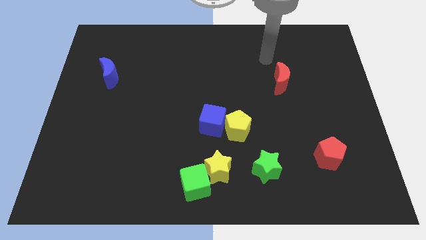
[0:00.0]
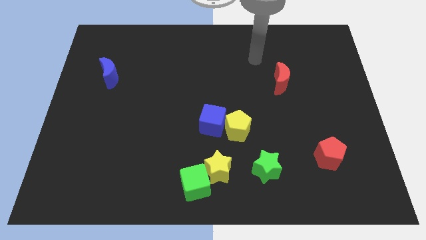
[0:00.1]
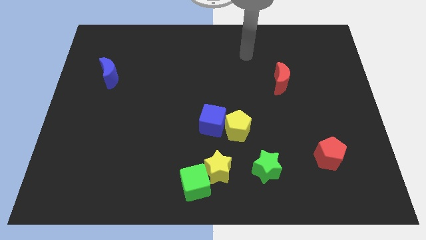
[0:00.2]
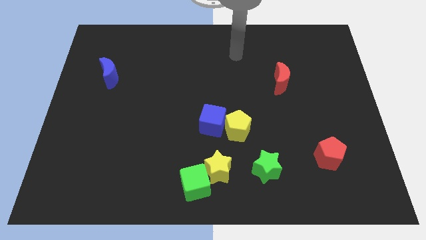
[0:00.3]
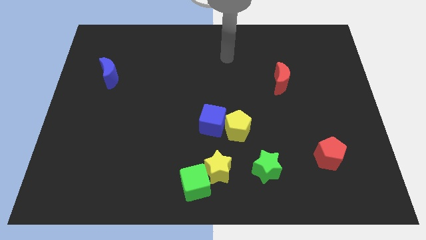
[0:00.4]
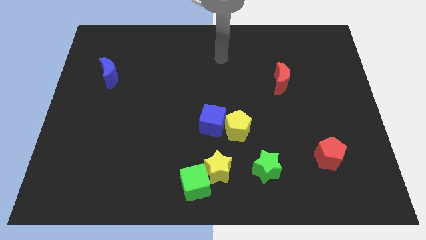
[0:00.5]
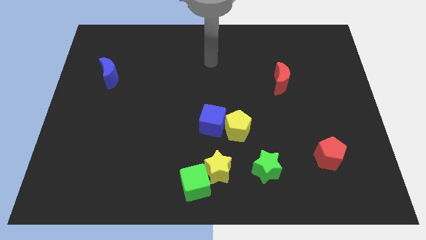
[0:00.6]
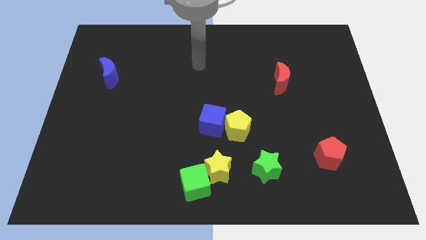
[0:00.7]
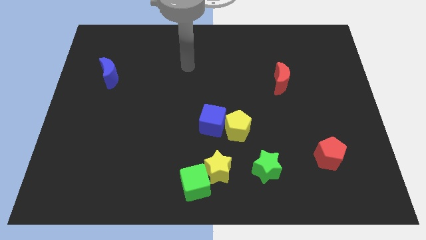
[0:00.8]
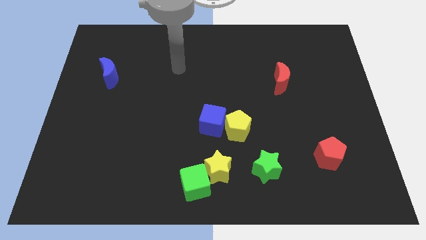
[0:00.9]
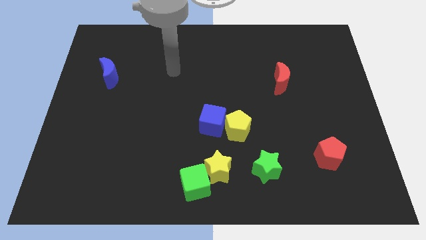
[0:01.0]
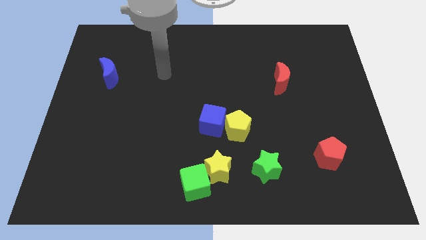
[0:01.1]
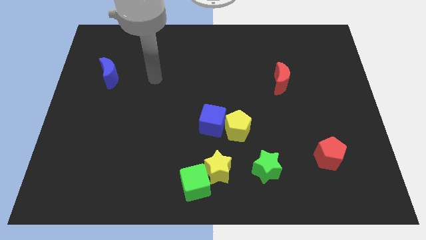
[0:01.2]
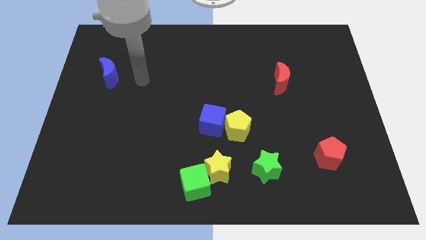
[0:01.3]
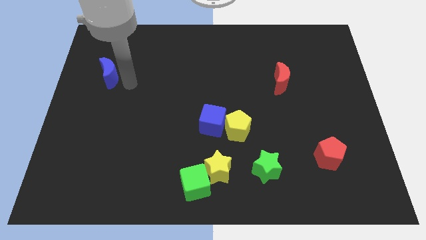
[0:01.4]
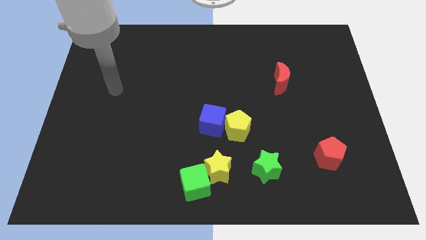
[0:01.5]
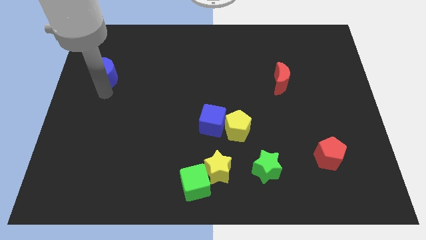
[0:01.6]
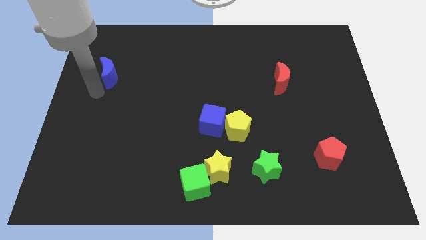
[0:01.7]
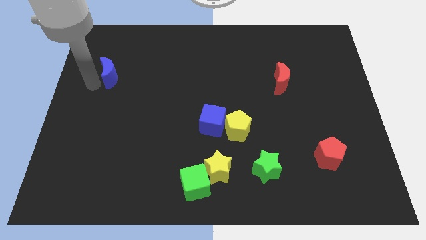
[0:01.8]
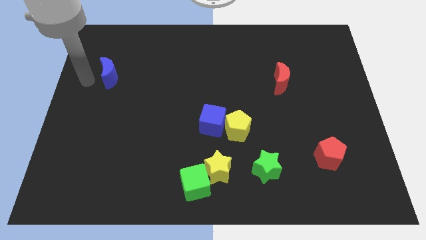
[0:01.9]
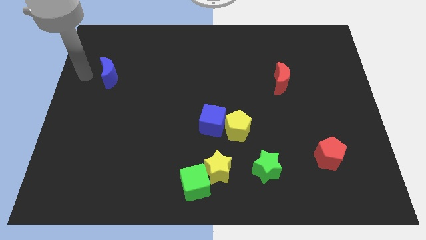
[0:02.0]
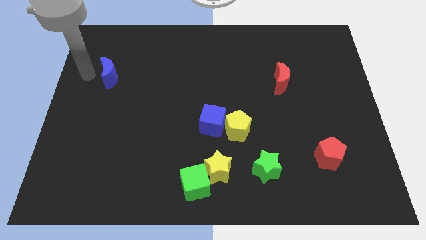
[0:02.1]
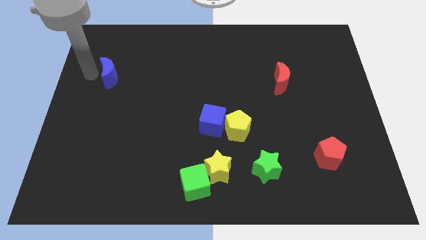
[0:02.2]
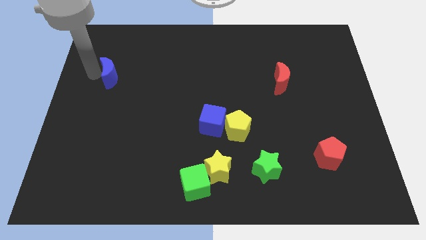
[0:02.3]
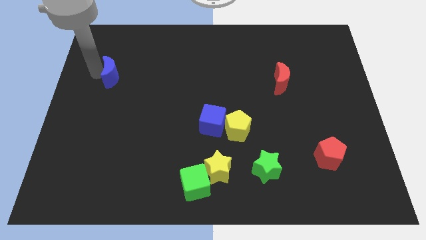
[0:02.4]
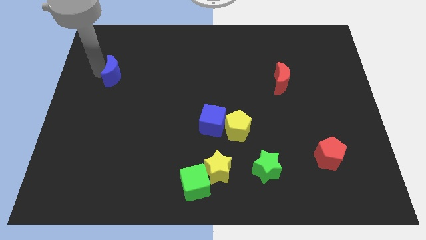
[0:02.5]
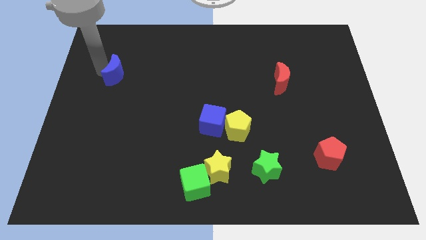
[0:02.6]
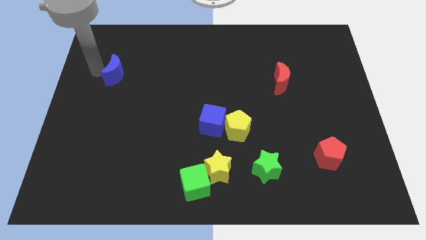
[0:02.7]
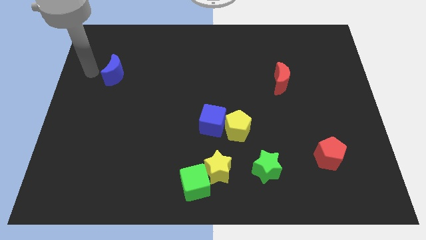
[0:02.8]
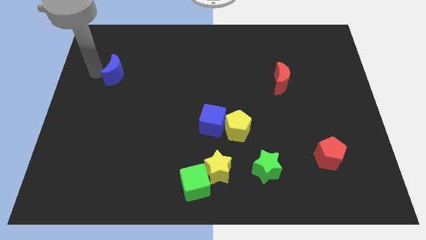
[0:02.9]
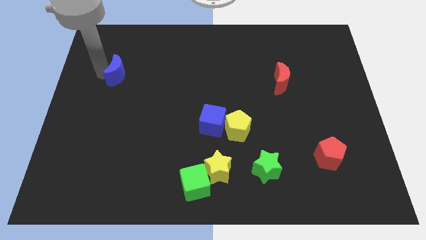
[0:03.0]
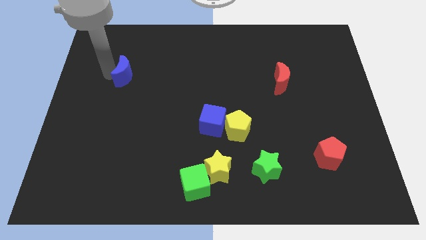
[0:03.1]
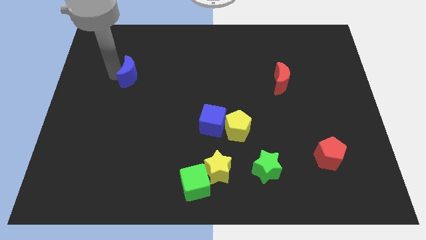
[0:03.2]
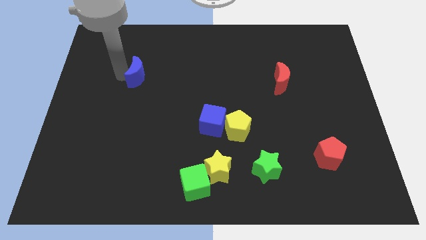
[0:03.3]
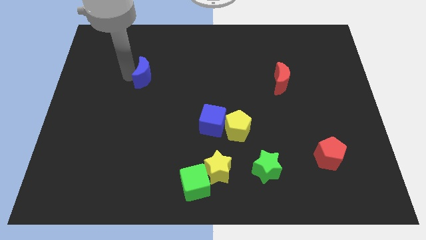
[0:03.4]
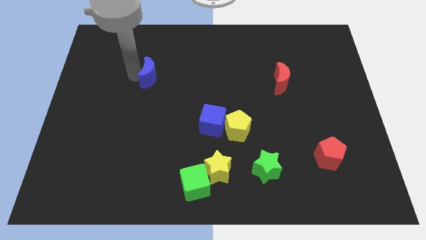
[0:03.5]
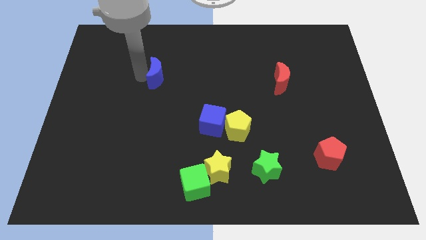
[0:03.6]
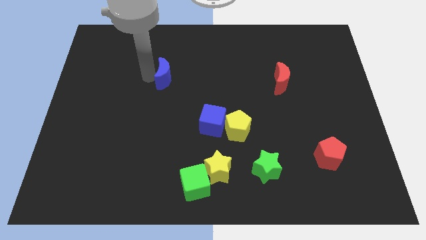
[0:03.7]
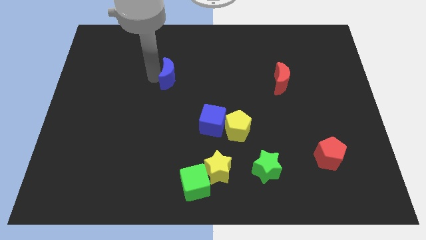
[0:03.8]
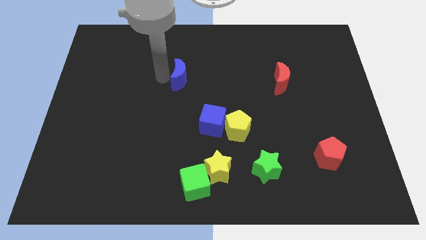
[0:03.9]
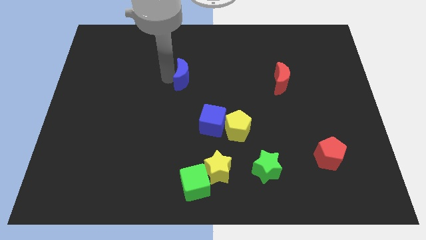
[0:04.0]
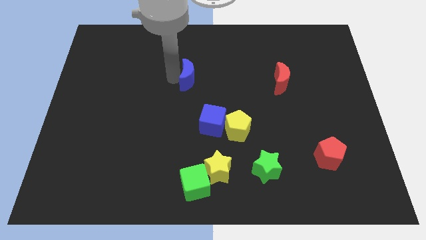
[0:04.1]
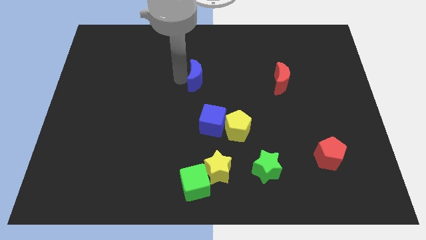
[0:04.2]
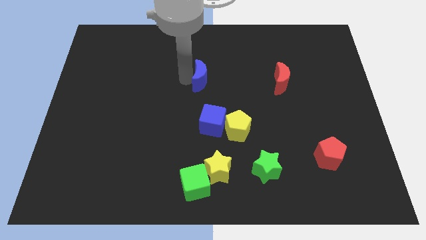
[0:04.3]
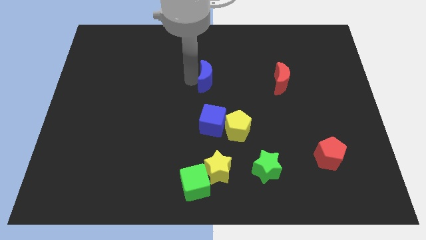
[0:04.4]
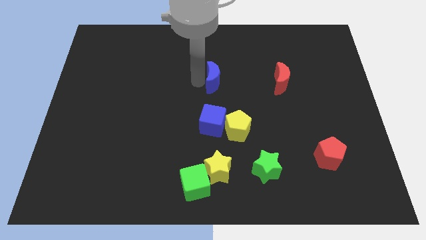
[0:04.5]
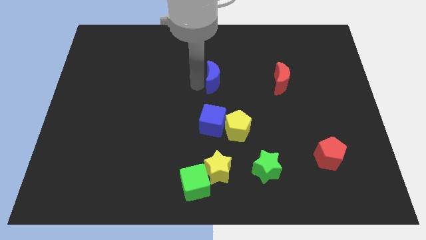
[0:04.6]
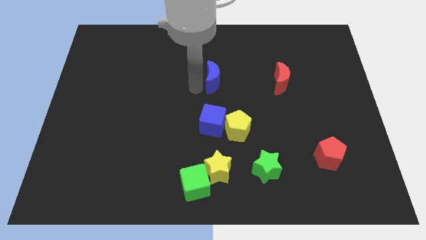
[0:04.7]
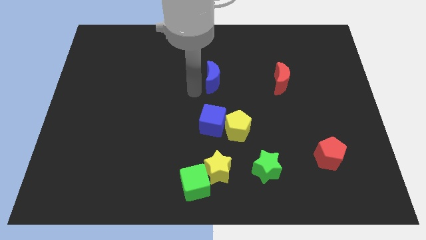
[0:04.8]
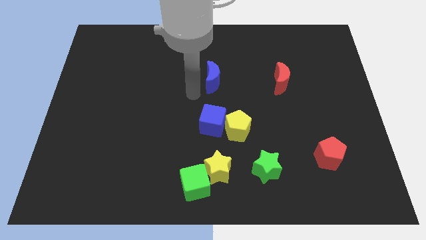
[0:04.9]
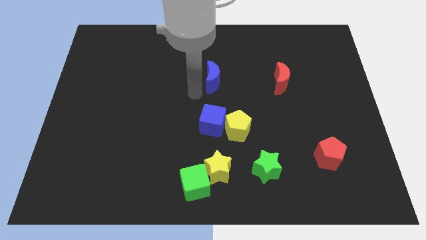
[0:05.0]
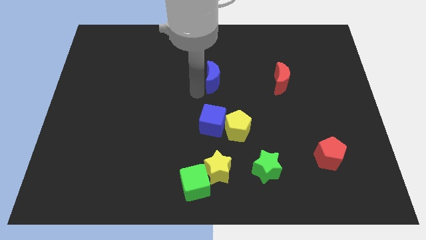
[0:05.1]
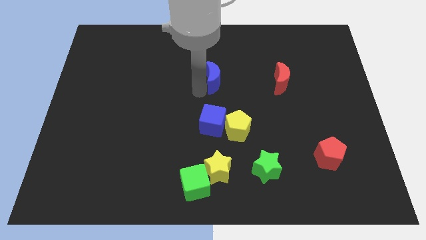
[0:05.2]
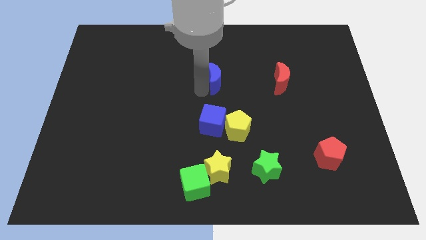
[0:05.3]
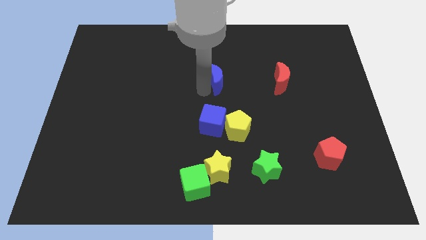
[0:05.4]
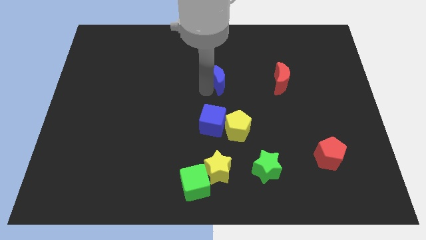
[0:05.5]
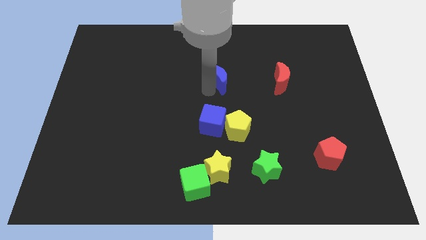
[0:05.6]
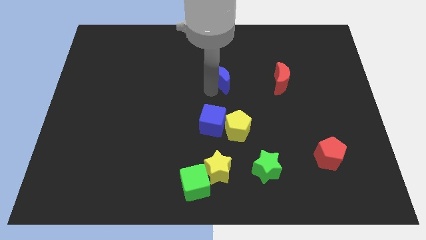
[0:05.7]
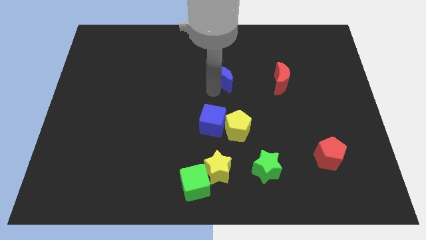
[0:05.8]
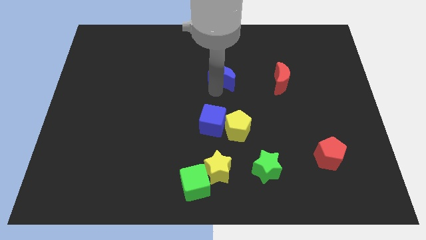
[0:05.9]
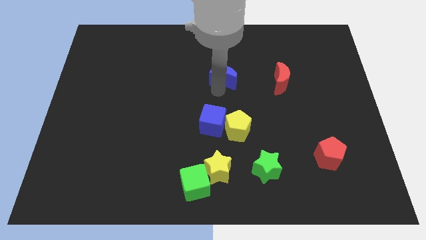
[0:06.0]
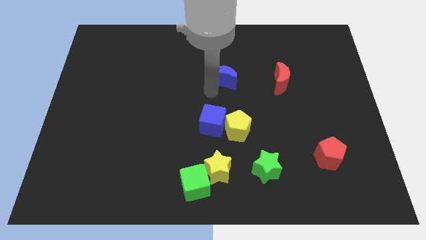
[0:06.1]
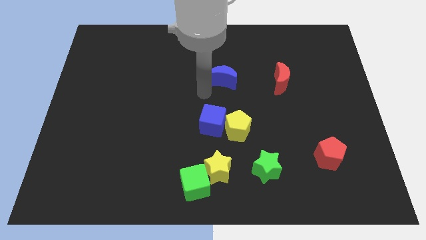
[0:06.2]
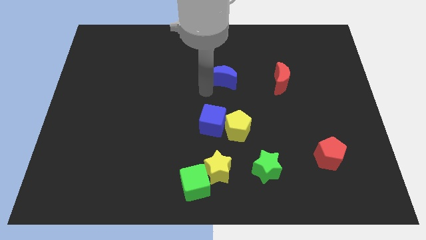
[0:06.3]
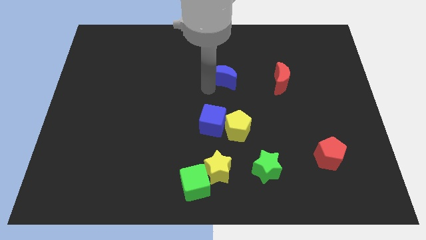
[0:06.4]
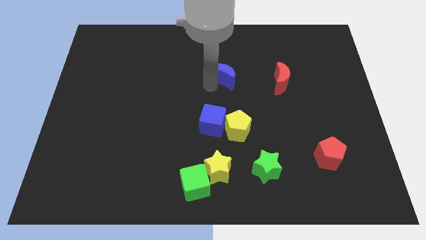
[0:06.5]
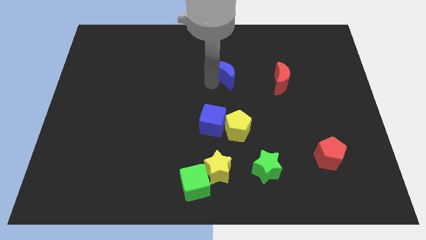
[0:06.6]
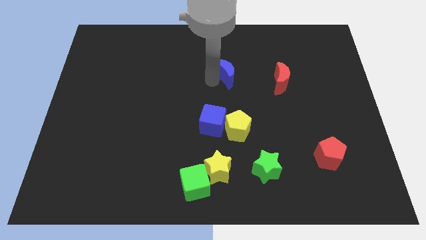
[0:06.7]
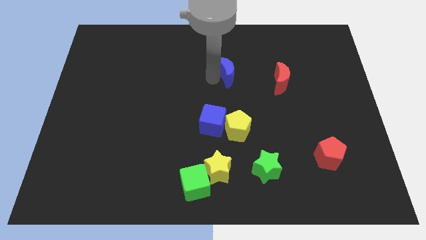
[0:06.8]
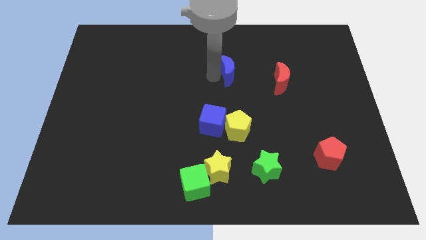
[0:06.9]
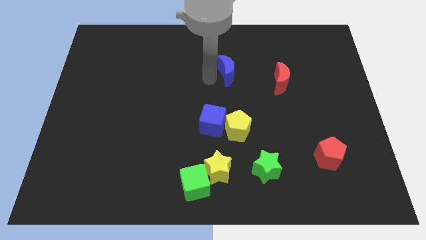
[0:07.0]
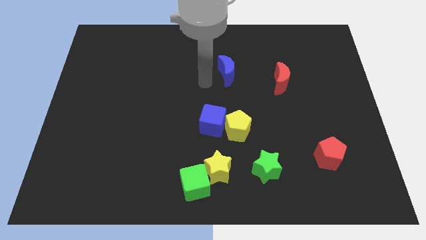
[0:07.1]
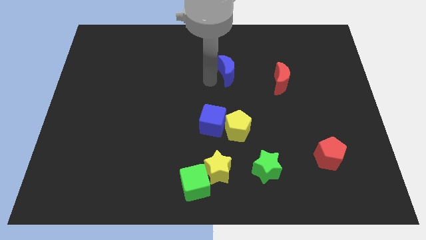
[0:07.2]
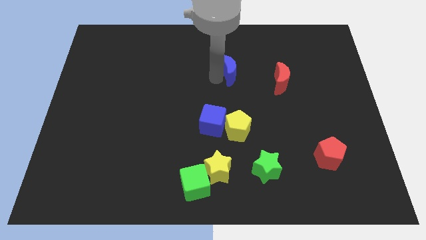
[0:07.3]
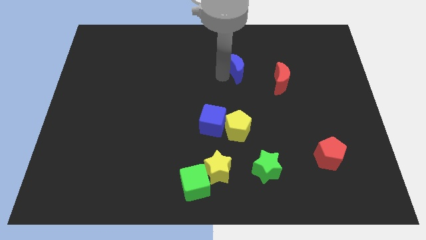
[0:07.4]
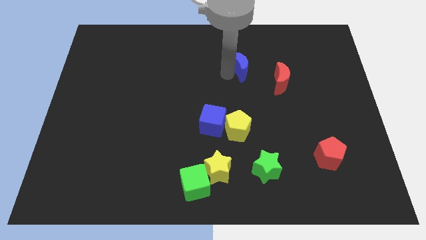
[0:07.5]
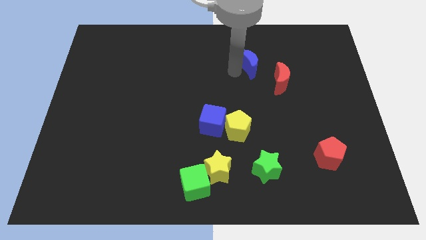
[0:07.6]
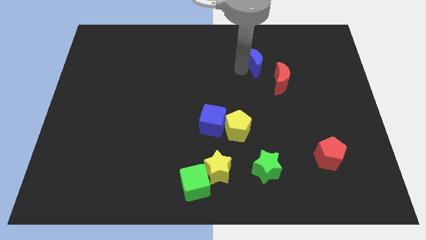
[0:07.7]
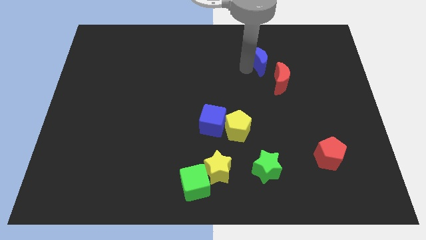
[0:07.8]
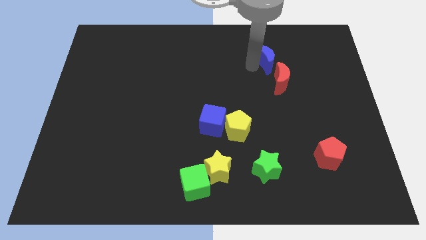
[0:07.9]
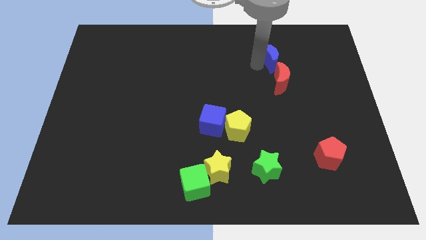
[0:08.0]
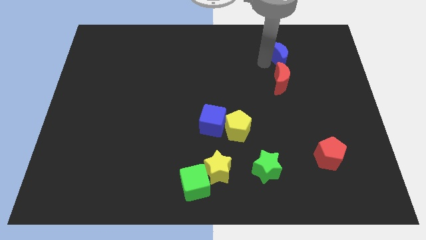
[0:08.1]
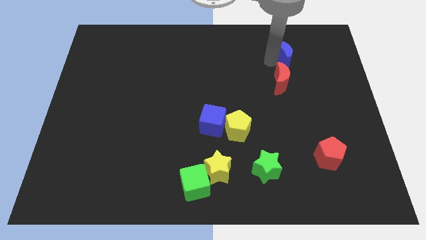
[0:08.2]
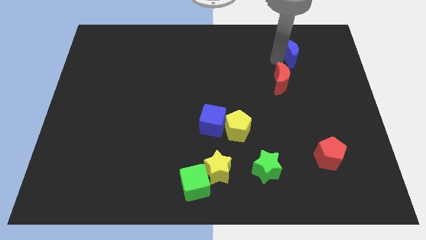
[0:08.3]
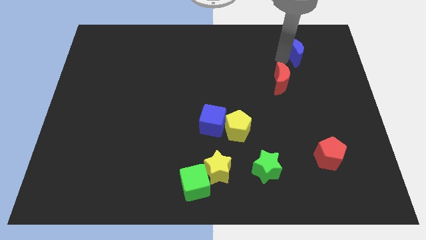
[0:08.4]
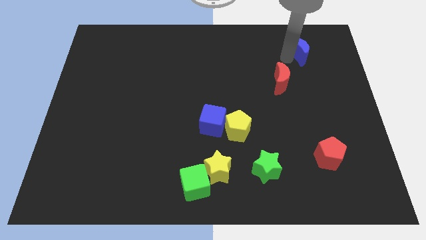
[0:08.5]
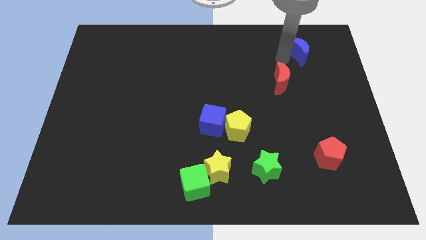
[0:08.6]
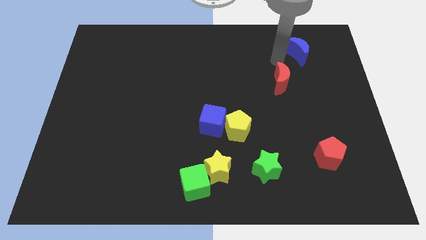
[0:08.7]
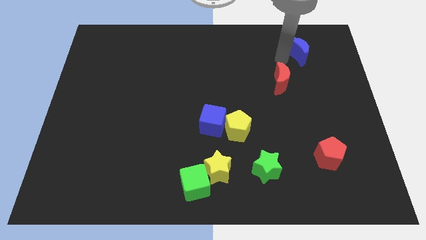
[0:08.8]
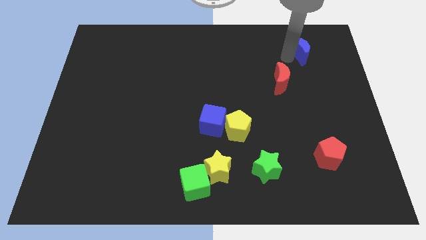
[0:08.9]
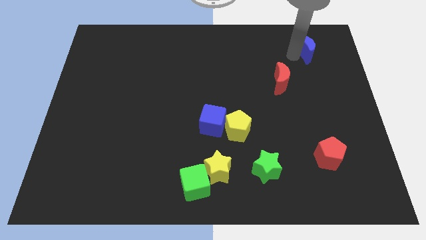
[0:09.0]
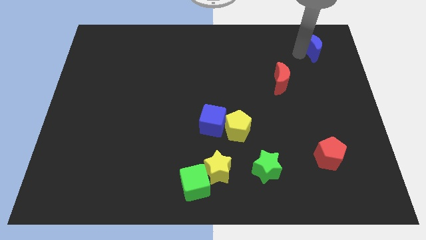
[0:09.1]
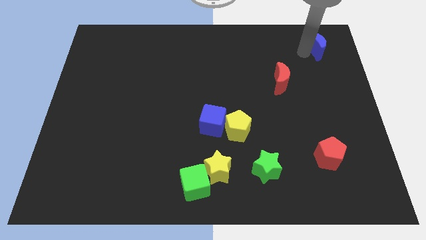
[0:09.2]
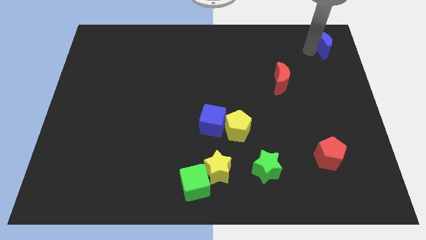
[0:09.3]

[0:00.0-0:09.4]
push the blue moon to the top right
